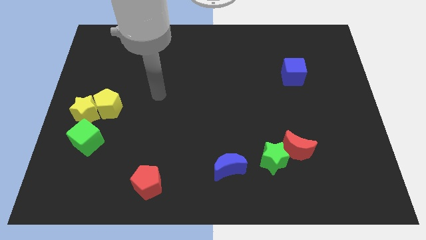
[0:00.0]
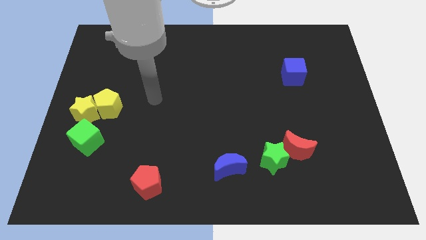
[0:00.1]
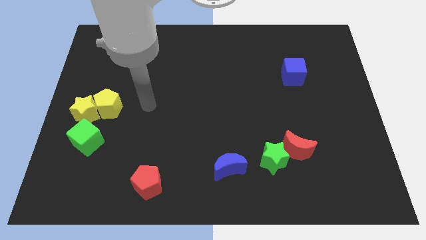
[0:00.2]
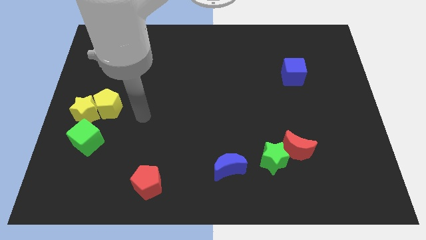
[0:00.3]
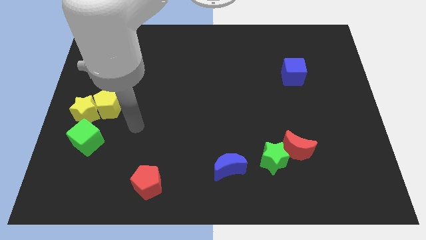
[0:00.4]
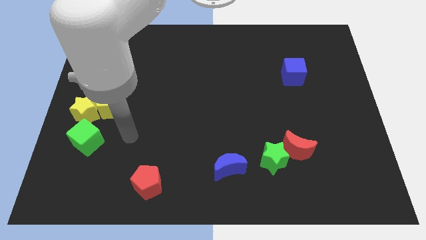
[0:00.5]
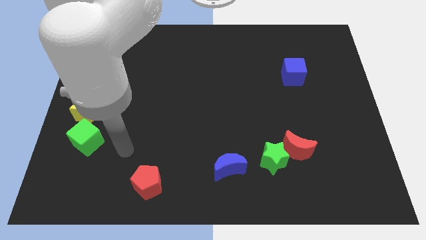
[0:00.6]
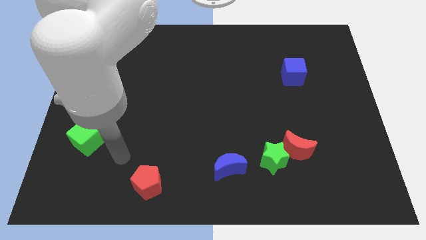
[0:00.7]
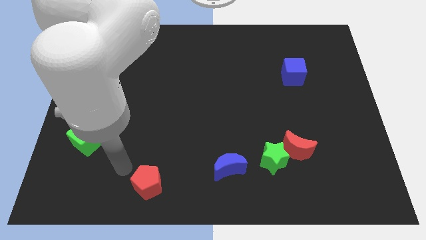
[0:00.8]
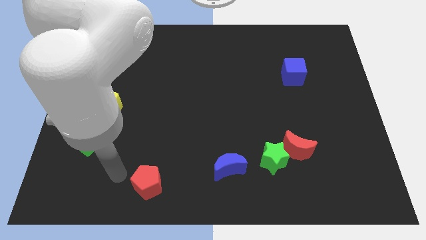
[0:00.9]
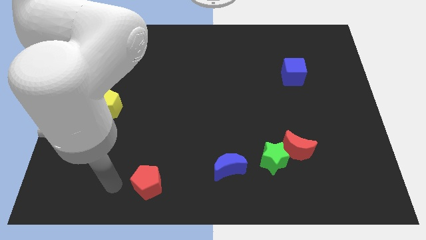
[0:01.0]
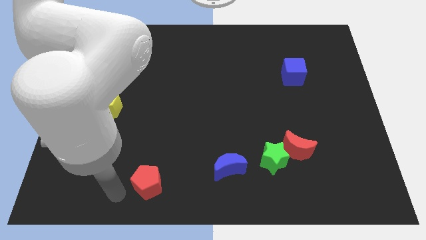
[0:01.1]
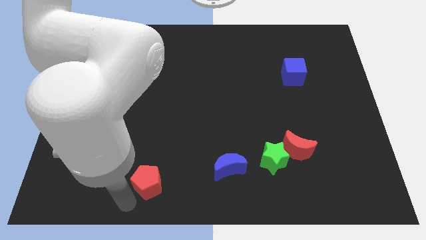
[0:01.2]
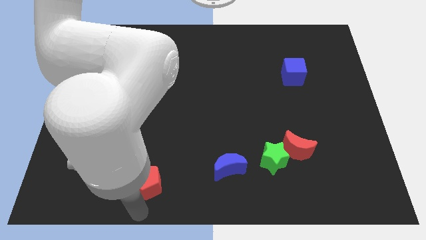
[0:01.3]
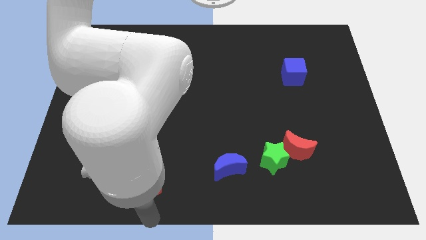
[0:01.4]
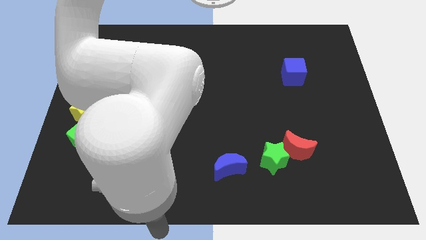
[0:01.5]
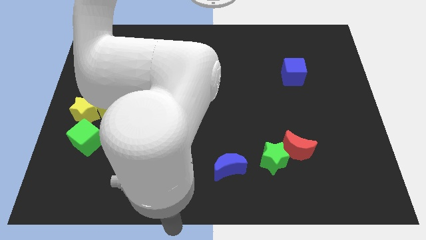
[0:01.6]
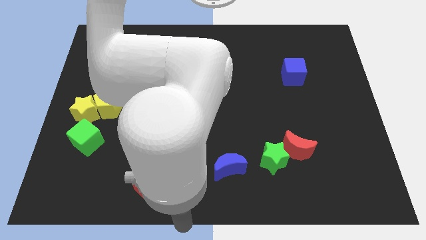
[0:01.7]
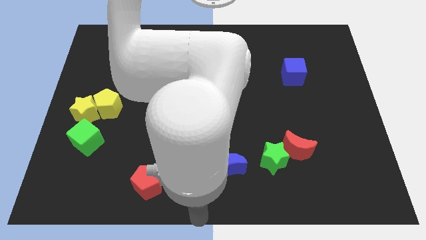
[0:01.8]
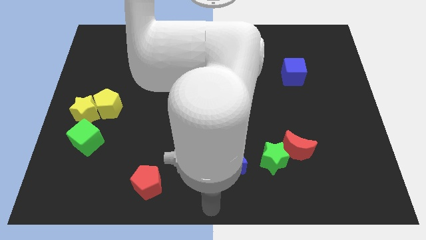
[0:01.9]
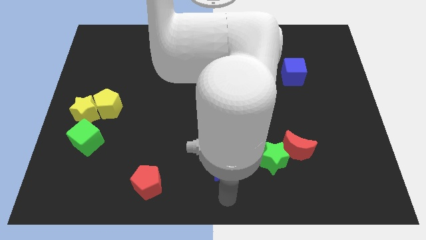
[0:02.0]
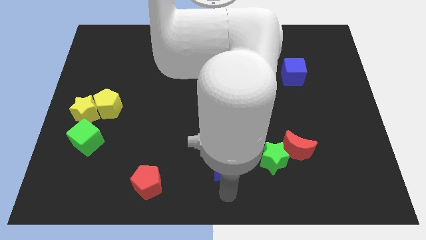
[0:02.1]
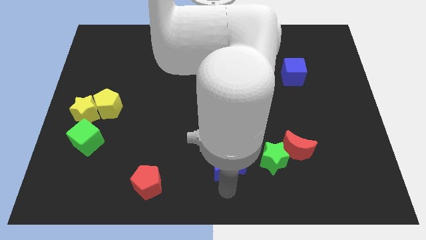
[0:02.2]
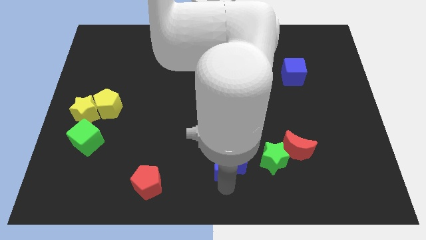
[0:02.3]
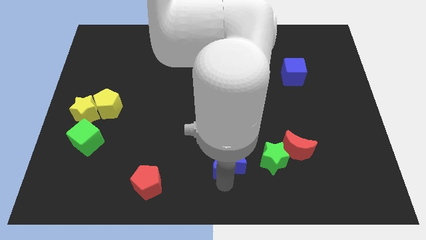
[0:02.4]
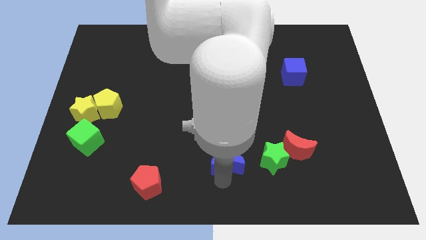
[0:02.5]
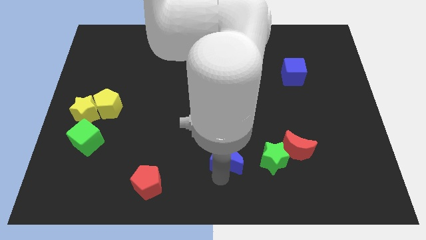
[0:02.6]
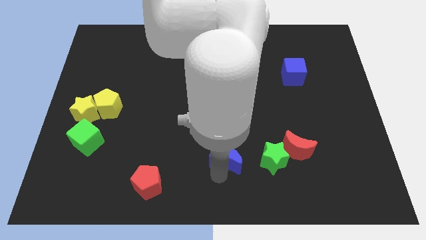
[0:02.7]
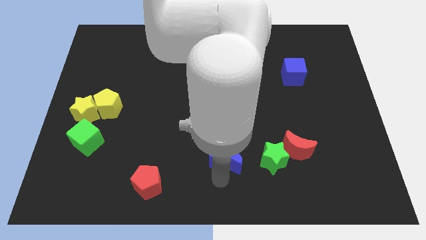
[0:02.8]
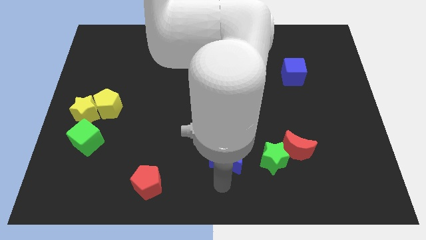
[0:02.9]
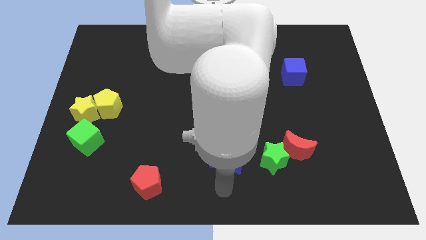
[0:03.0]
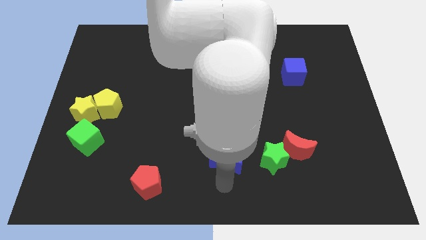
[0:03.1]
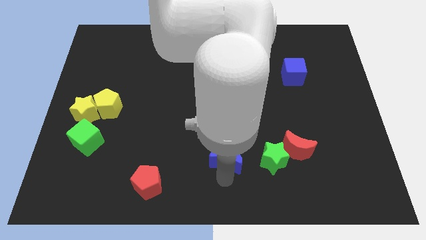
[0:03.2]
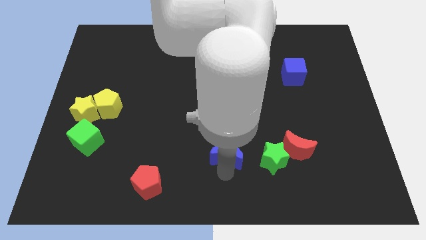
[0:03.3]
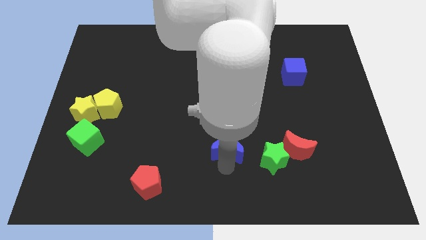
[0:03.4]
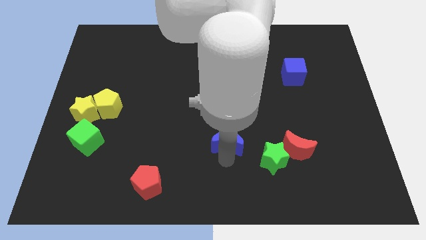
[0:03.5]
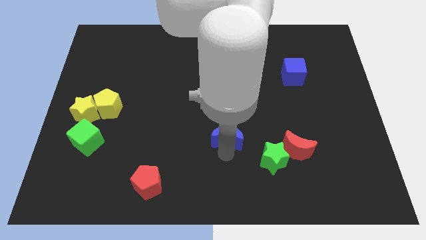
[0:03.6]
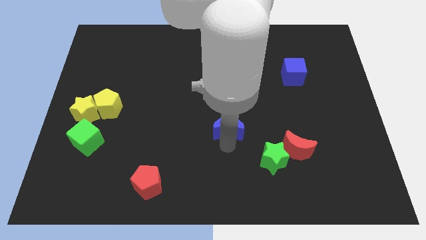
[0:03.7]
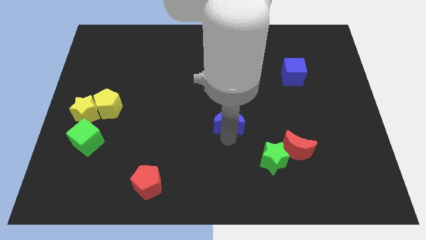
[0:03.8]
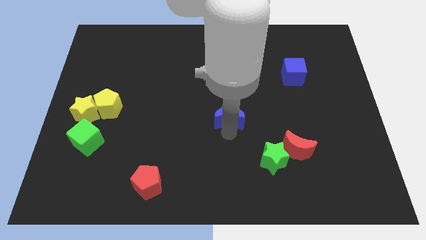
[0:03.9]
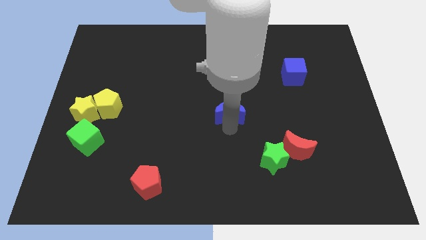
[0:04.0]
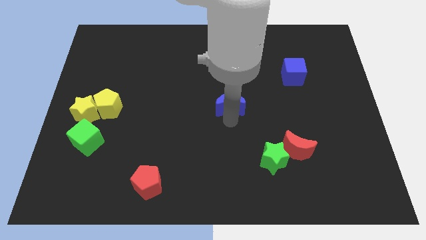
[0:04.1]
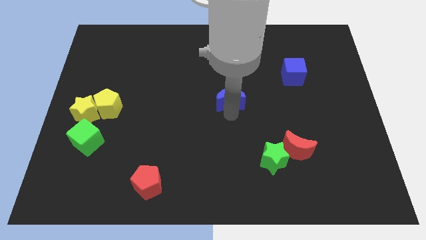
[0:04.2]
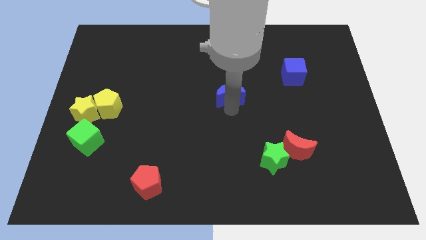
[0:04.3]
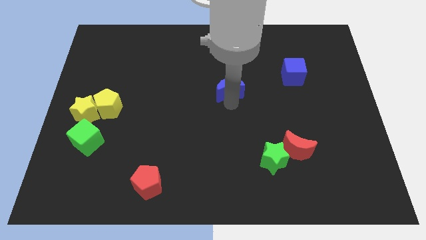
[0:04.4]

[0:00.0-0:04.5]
move the blue moon upwards

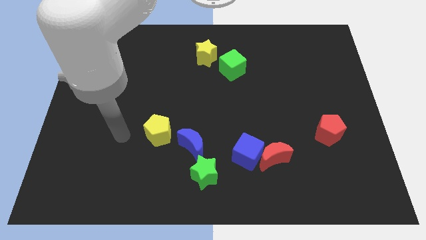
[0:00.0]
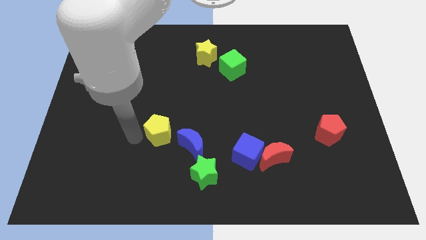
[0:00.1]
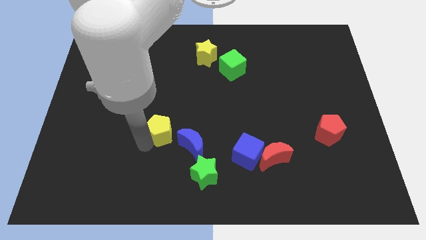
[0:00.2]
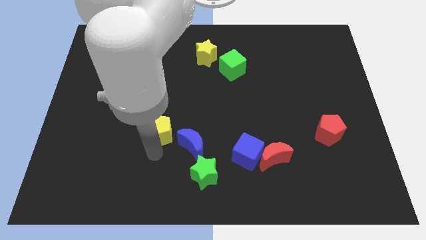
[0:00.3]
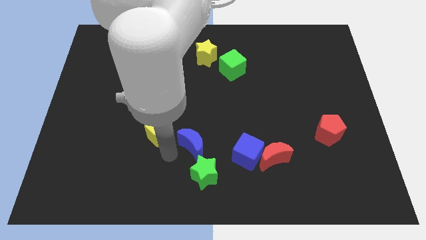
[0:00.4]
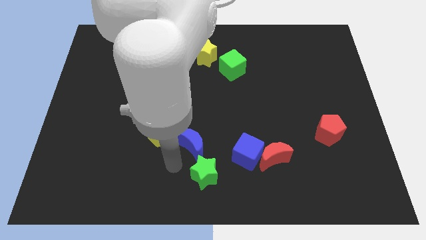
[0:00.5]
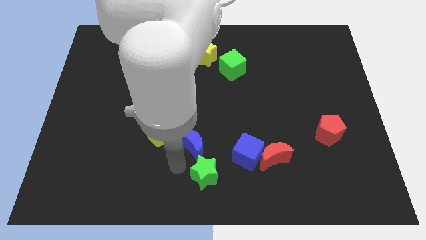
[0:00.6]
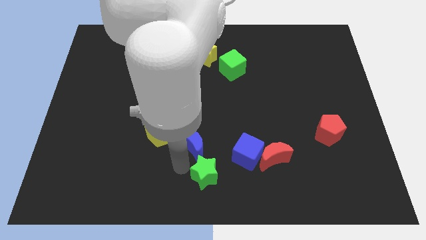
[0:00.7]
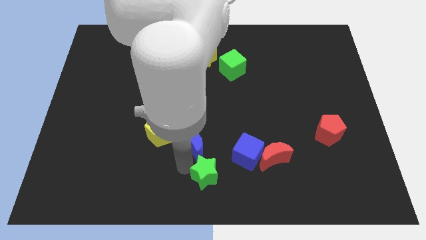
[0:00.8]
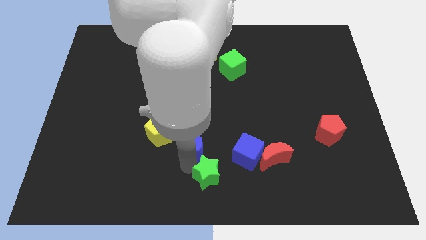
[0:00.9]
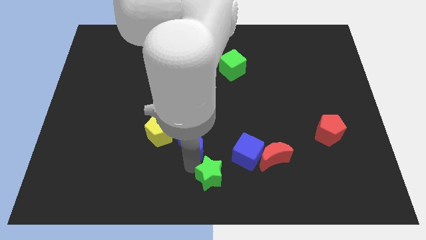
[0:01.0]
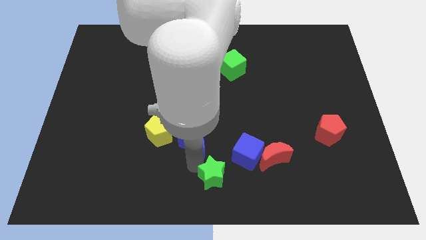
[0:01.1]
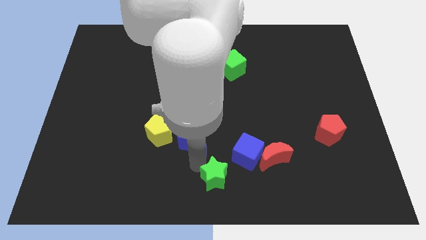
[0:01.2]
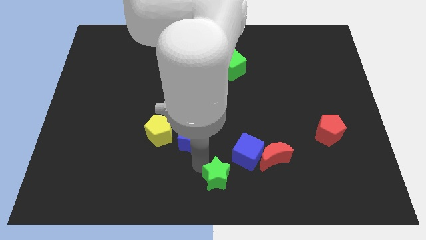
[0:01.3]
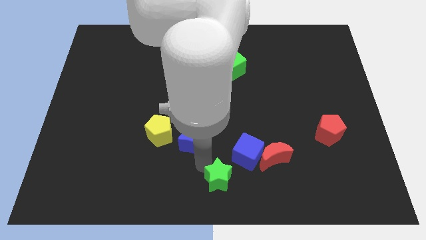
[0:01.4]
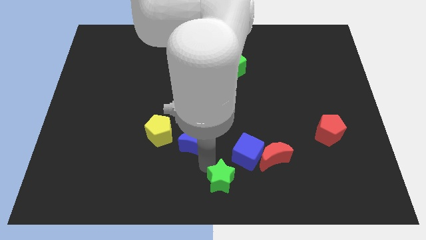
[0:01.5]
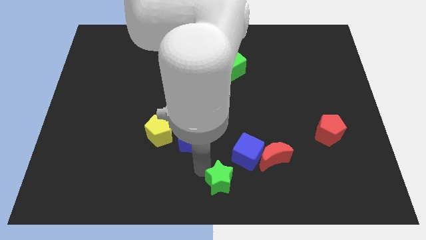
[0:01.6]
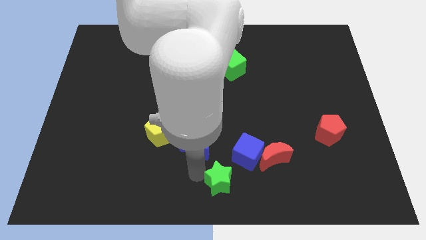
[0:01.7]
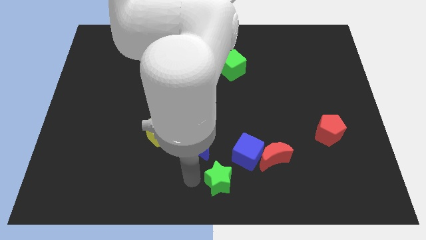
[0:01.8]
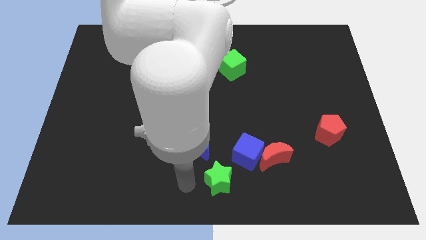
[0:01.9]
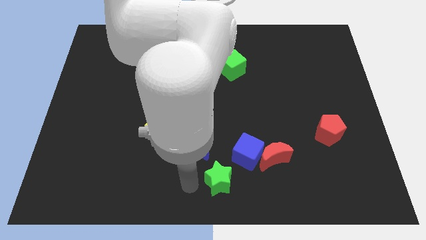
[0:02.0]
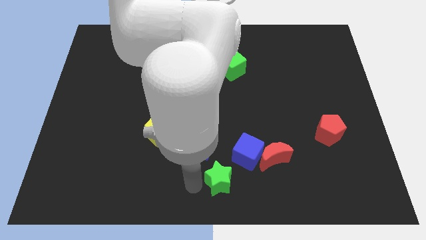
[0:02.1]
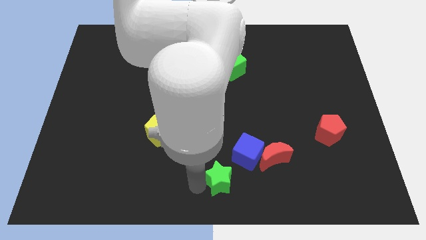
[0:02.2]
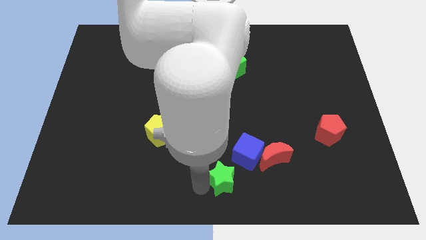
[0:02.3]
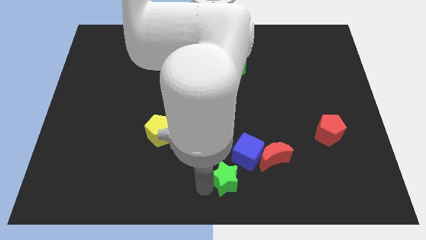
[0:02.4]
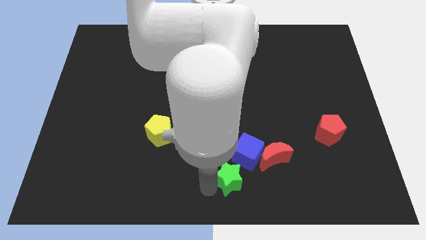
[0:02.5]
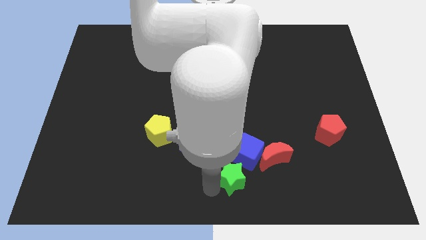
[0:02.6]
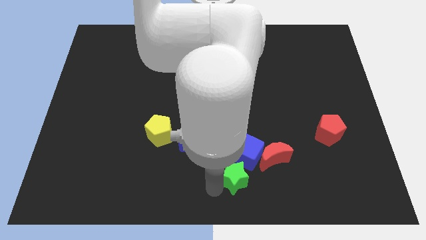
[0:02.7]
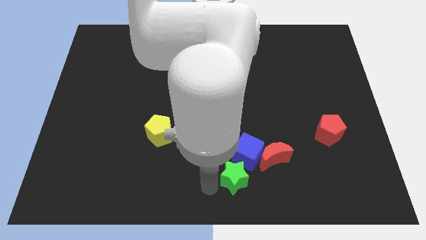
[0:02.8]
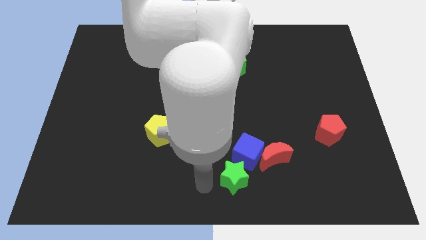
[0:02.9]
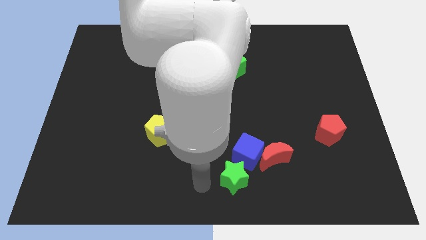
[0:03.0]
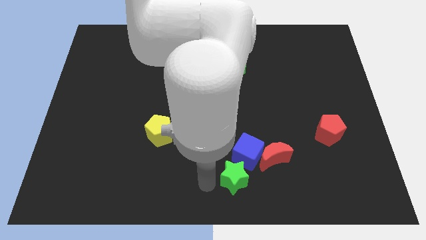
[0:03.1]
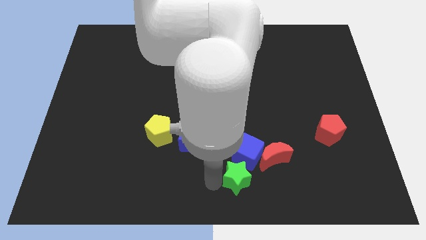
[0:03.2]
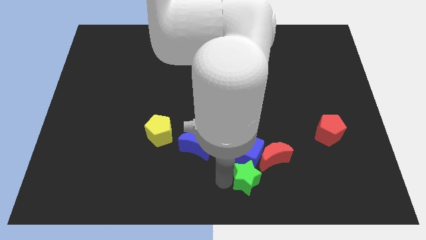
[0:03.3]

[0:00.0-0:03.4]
slightly push the green star to the right
